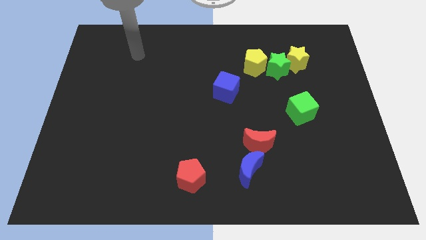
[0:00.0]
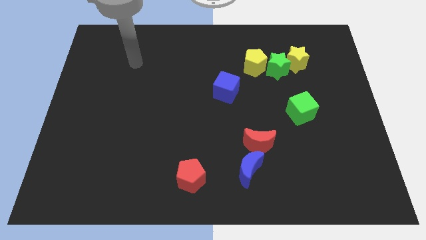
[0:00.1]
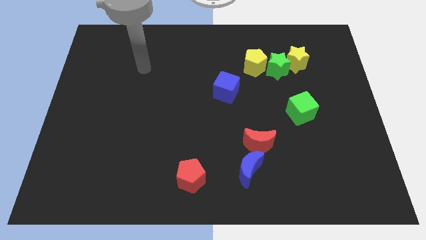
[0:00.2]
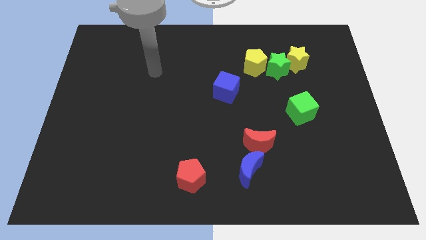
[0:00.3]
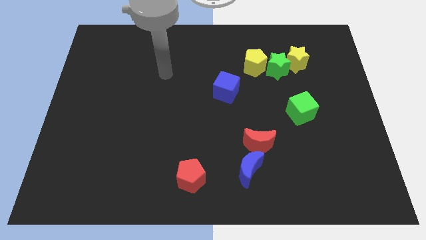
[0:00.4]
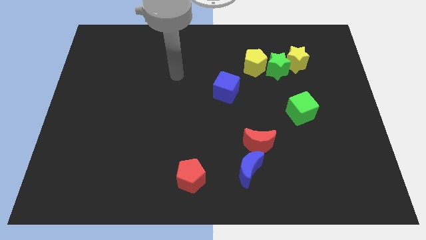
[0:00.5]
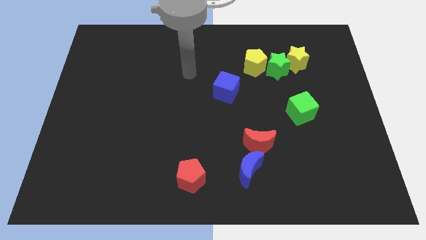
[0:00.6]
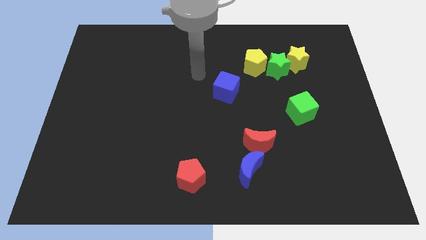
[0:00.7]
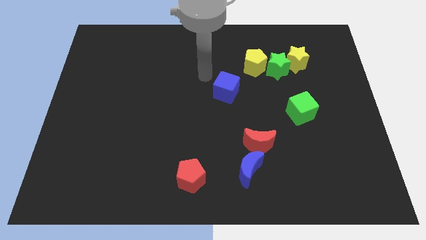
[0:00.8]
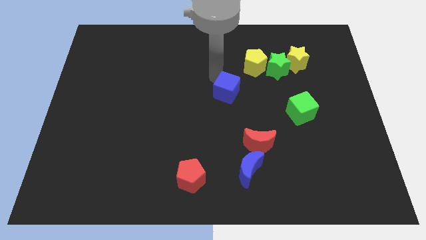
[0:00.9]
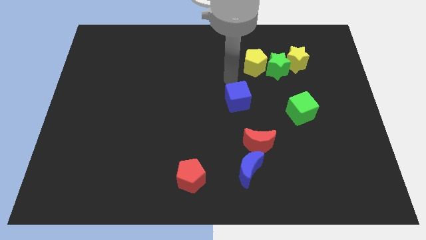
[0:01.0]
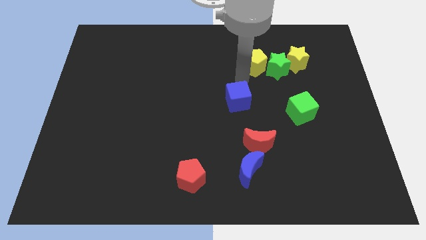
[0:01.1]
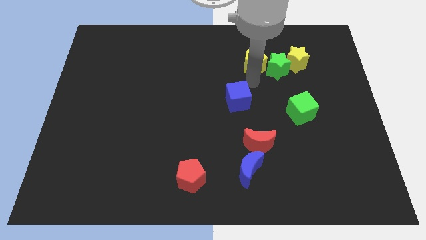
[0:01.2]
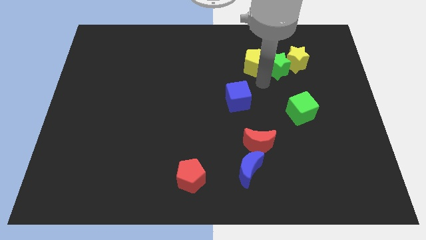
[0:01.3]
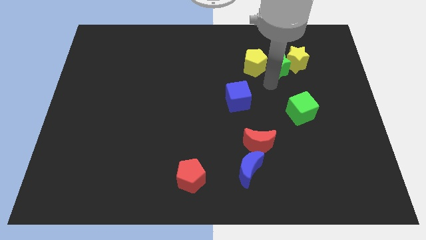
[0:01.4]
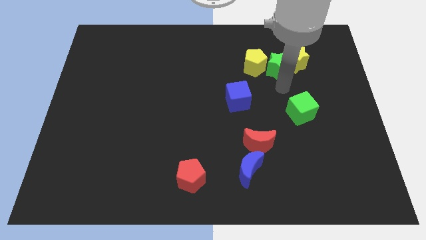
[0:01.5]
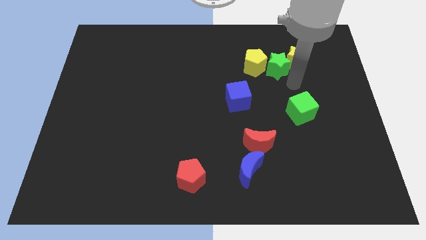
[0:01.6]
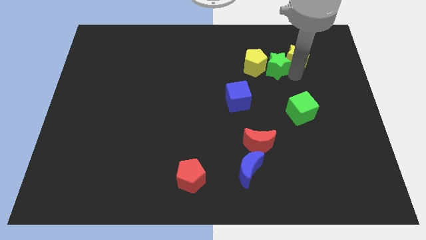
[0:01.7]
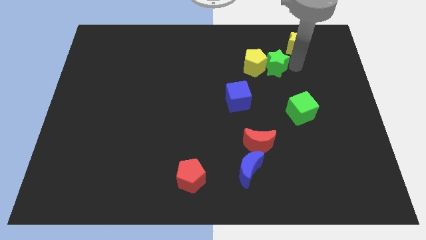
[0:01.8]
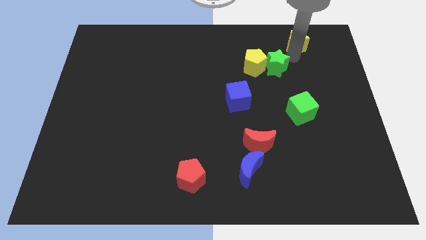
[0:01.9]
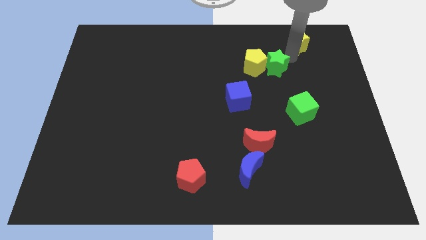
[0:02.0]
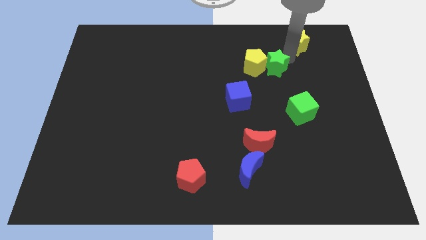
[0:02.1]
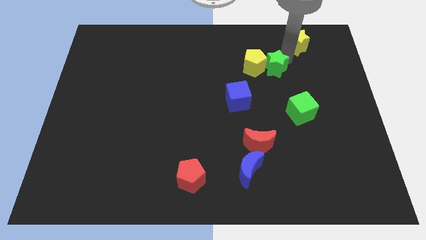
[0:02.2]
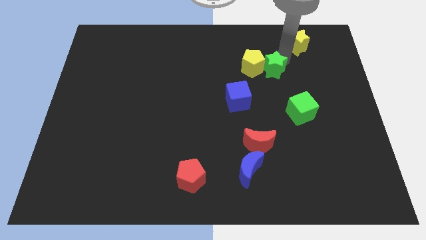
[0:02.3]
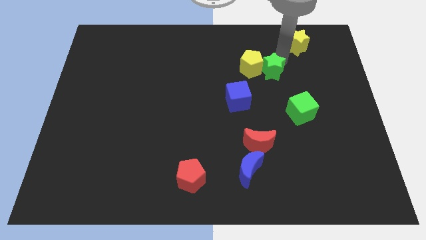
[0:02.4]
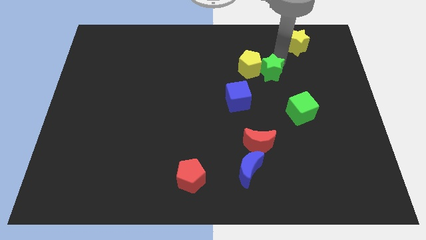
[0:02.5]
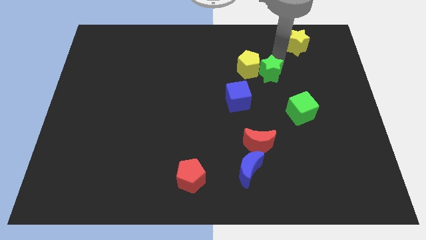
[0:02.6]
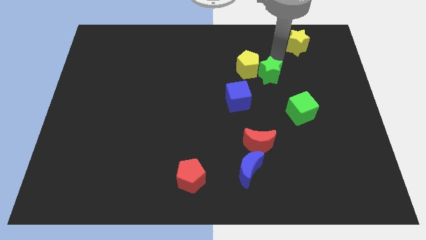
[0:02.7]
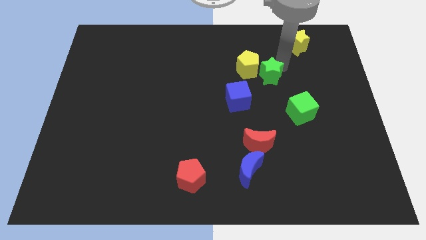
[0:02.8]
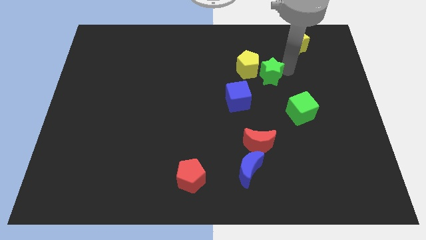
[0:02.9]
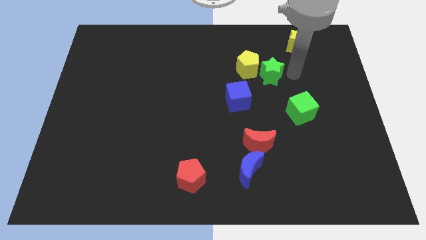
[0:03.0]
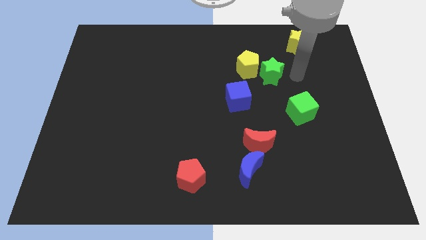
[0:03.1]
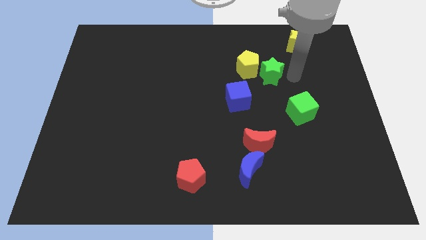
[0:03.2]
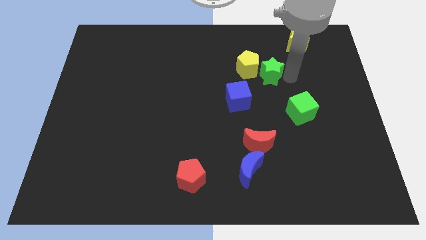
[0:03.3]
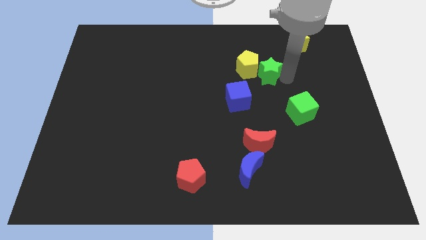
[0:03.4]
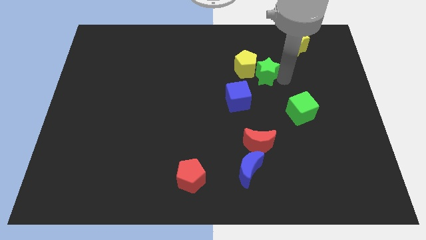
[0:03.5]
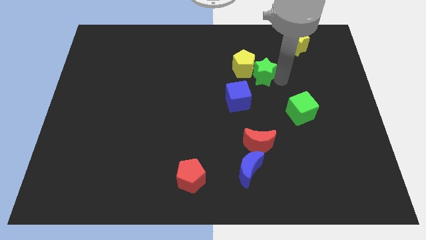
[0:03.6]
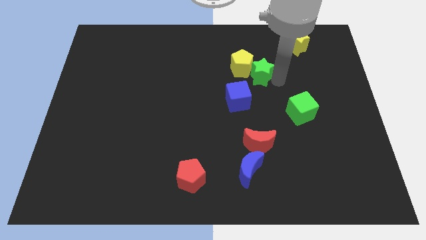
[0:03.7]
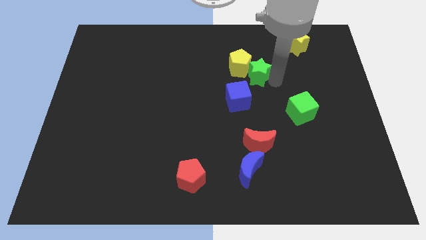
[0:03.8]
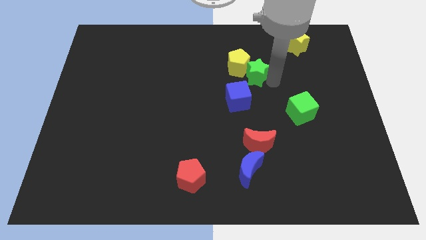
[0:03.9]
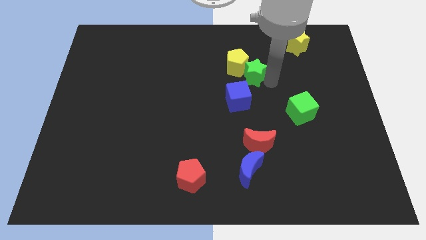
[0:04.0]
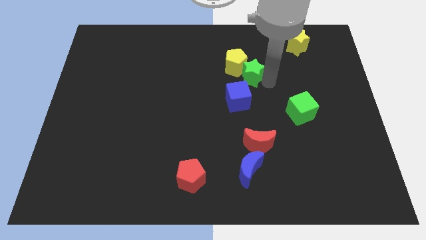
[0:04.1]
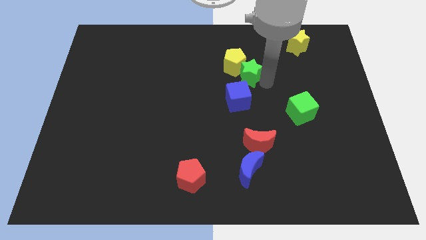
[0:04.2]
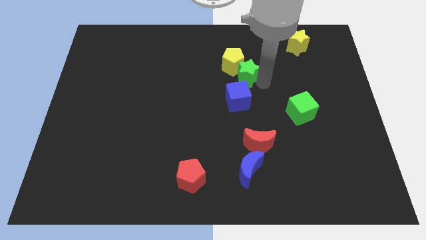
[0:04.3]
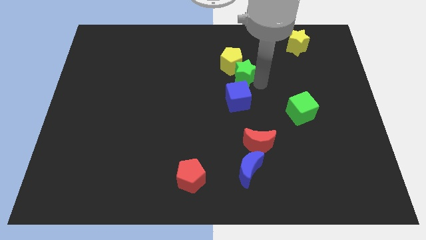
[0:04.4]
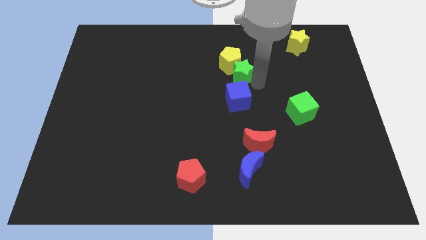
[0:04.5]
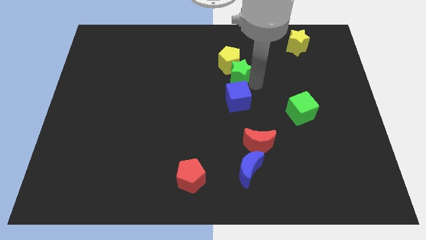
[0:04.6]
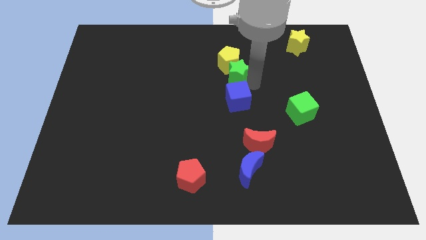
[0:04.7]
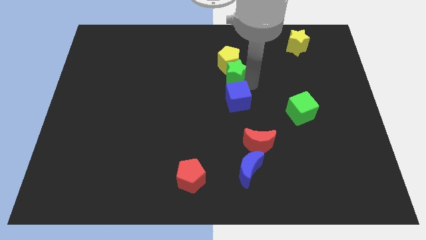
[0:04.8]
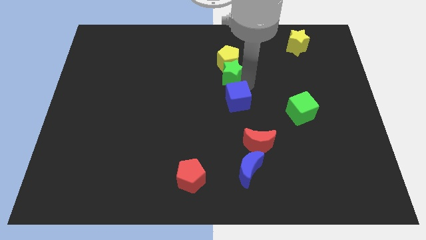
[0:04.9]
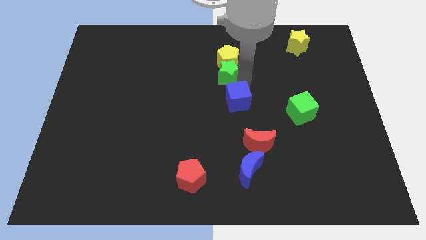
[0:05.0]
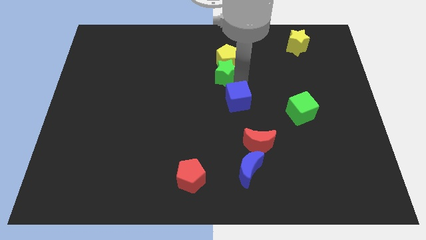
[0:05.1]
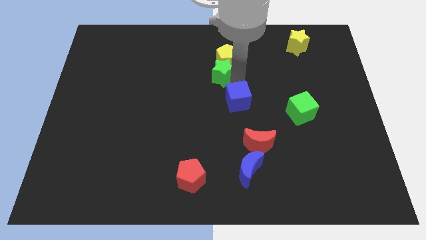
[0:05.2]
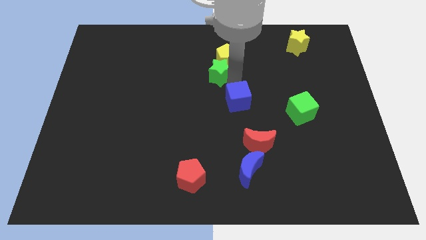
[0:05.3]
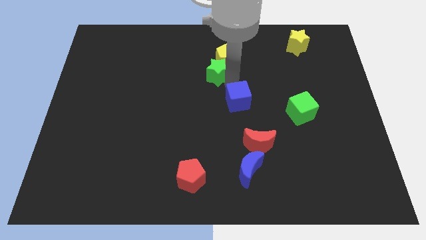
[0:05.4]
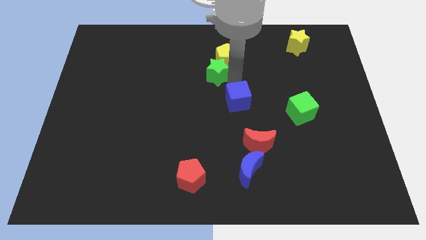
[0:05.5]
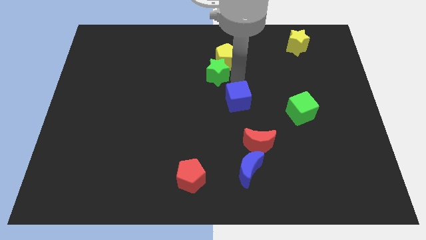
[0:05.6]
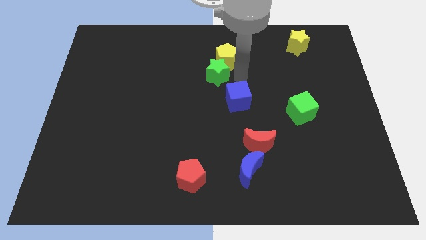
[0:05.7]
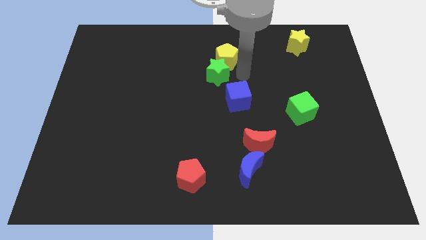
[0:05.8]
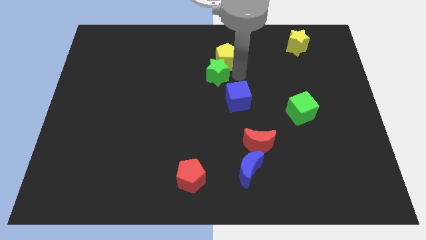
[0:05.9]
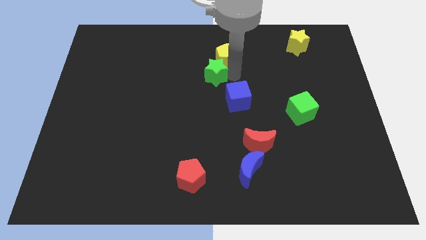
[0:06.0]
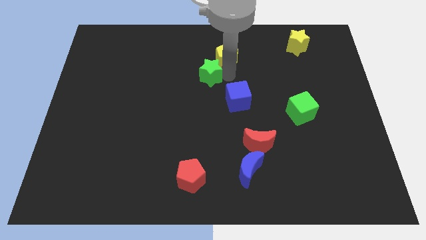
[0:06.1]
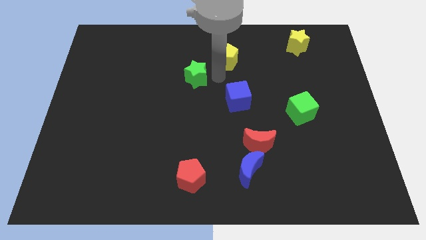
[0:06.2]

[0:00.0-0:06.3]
slide the green star to the left

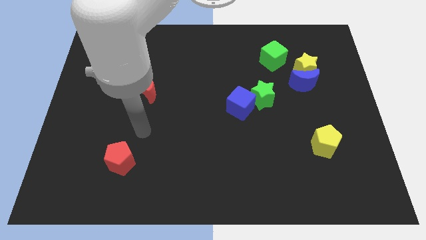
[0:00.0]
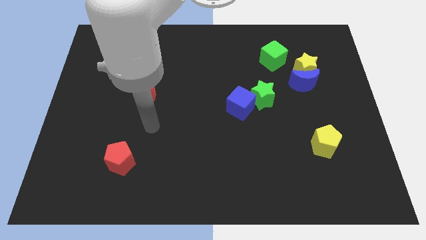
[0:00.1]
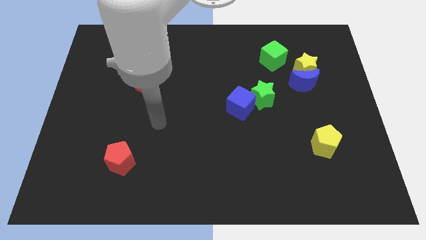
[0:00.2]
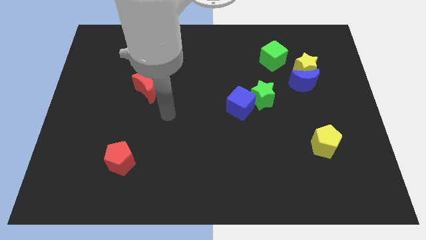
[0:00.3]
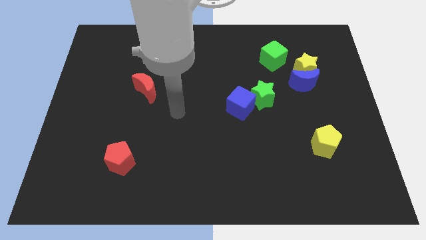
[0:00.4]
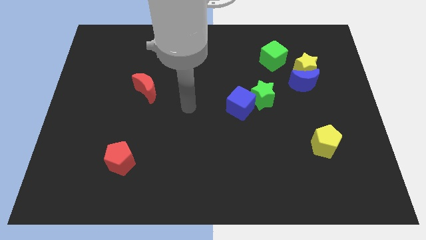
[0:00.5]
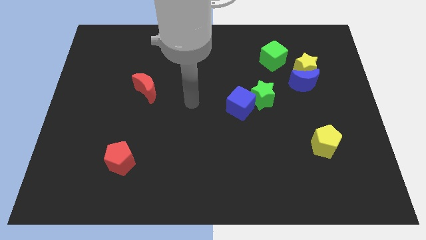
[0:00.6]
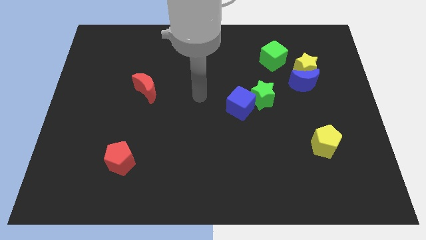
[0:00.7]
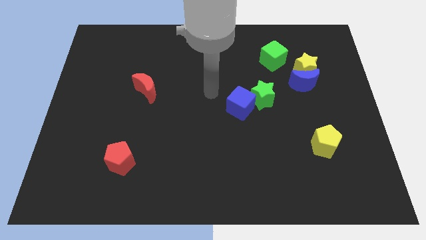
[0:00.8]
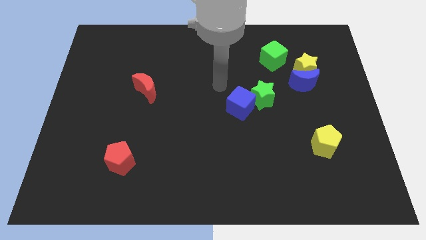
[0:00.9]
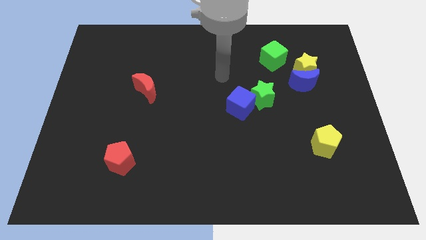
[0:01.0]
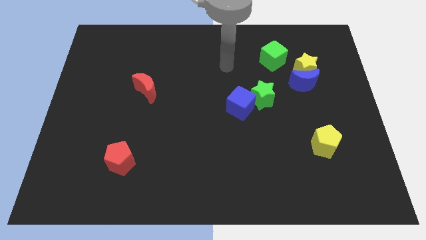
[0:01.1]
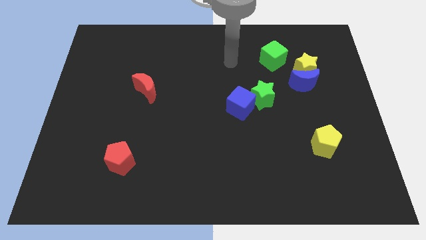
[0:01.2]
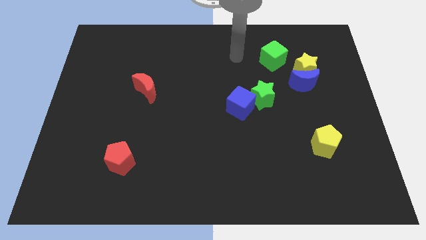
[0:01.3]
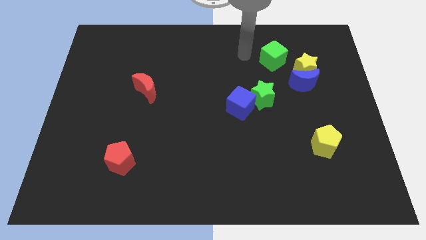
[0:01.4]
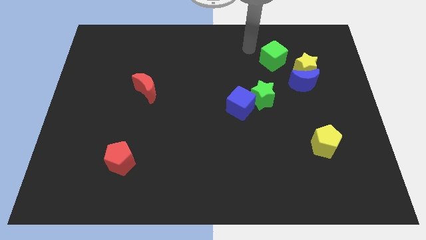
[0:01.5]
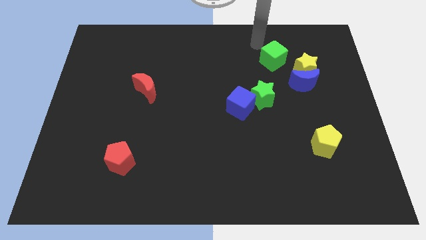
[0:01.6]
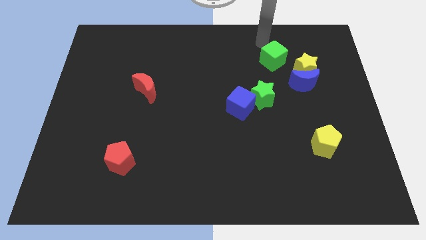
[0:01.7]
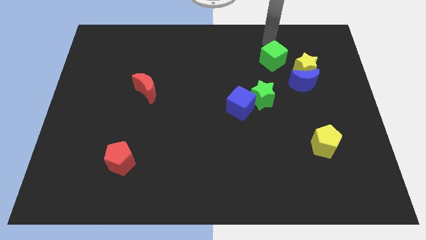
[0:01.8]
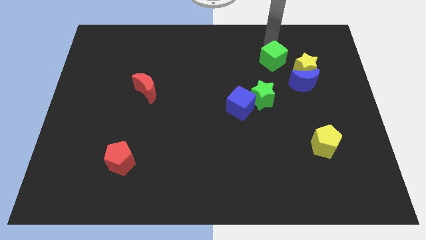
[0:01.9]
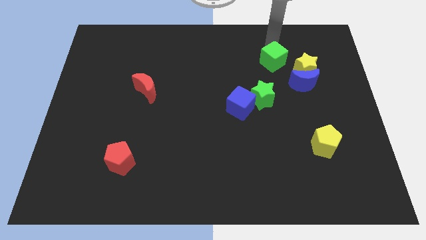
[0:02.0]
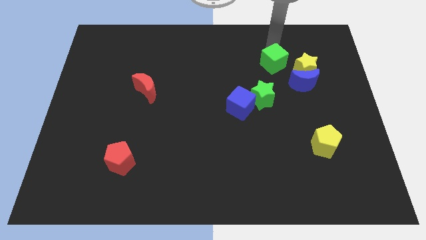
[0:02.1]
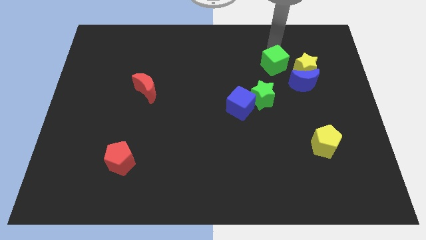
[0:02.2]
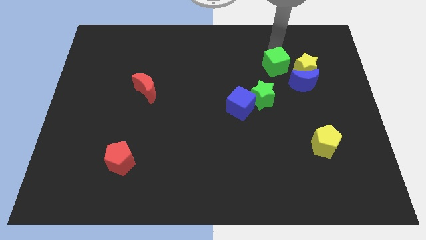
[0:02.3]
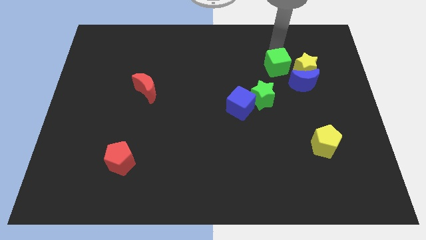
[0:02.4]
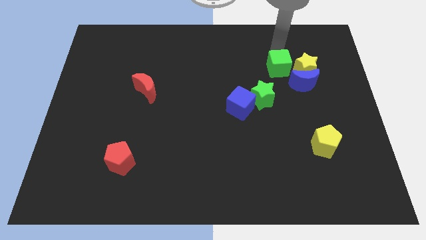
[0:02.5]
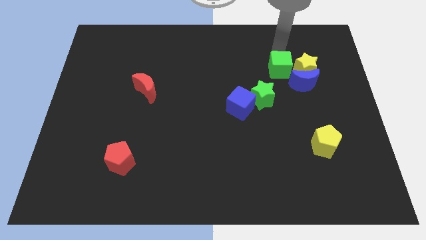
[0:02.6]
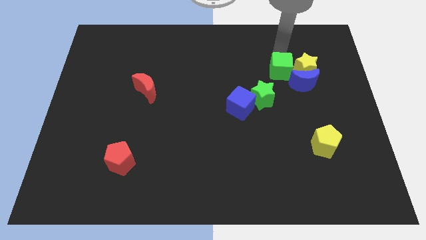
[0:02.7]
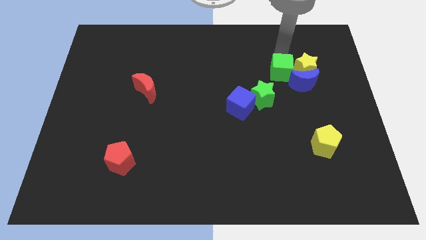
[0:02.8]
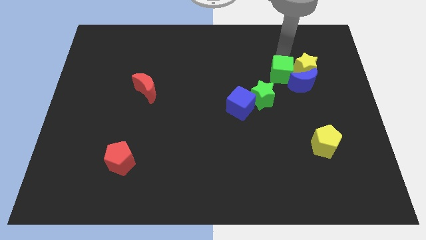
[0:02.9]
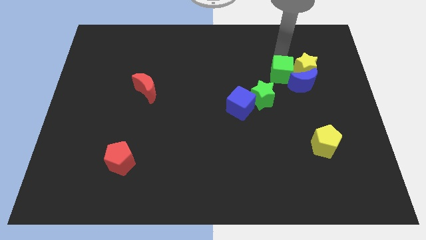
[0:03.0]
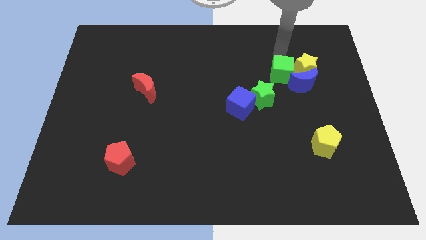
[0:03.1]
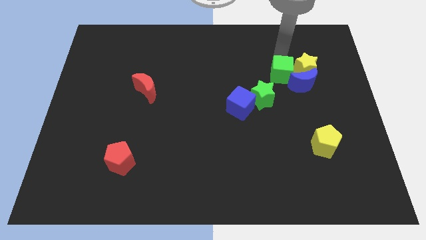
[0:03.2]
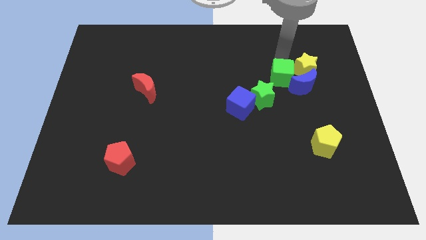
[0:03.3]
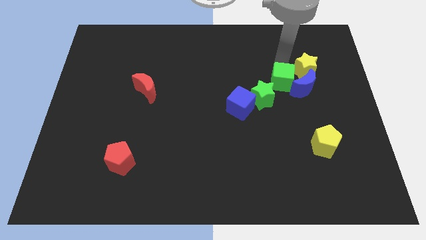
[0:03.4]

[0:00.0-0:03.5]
slightly push the green cube down
